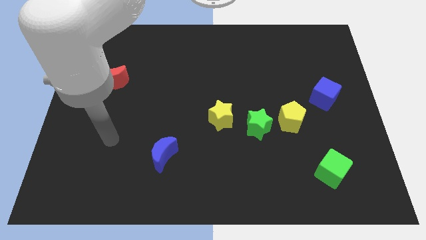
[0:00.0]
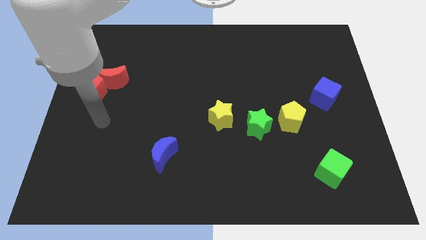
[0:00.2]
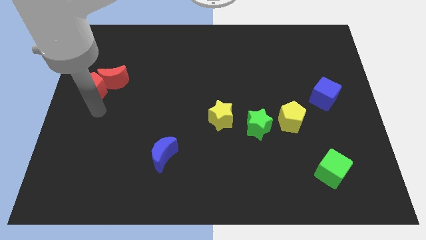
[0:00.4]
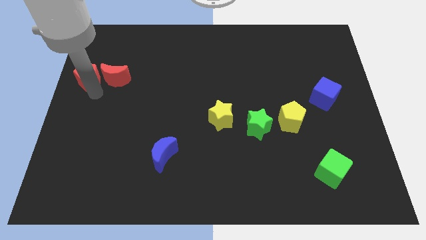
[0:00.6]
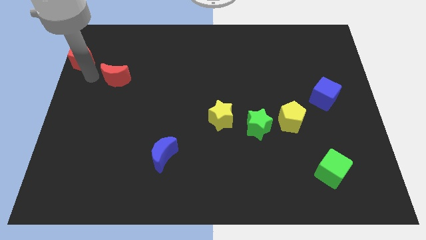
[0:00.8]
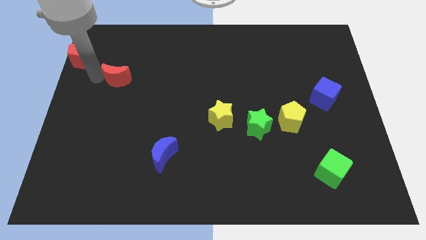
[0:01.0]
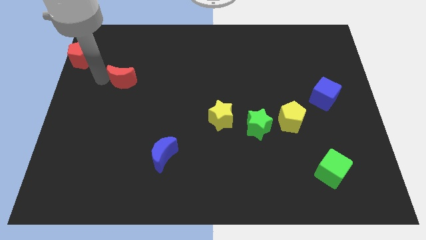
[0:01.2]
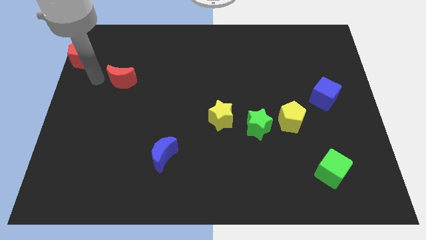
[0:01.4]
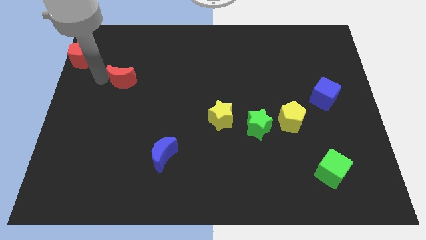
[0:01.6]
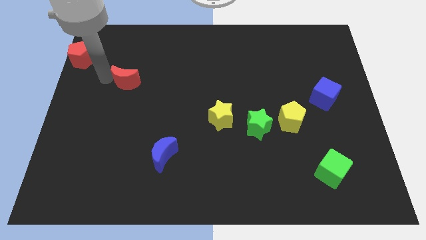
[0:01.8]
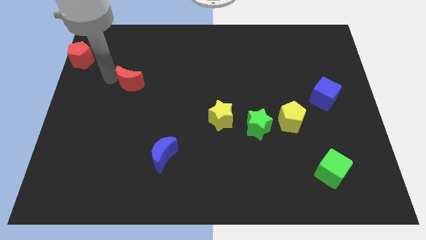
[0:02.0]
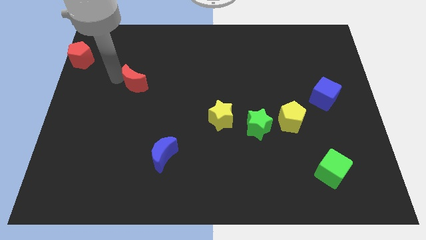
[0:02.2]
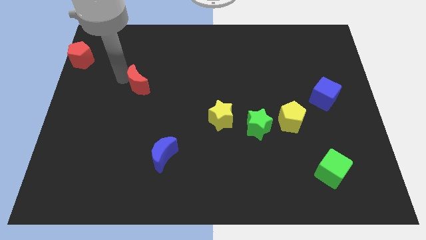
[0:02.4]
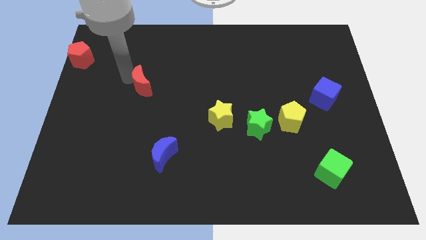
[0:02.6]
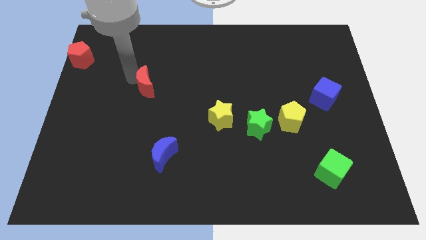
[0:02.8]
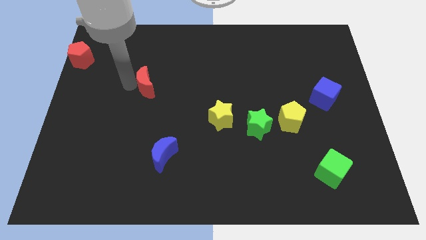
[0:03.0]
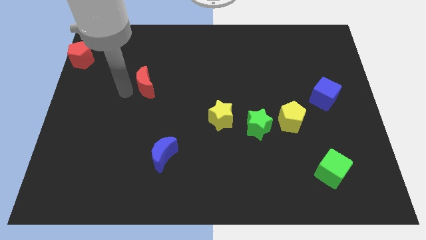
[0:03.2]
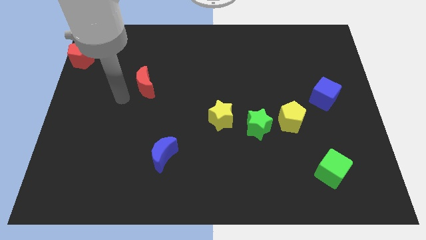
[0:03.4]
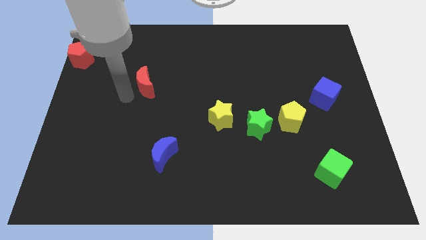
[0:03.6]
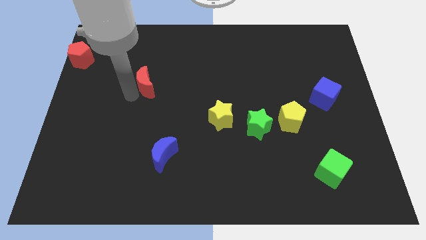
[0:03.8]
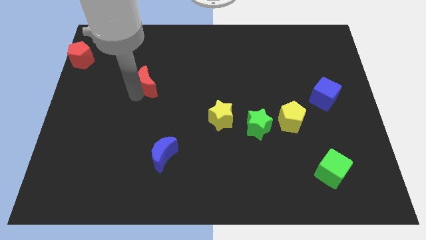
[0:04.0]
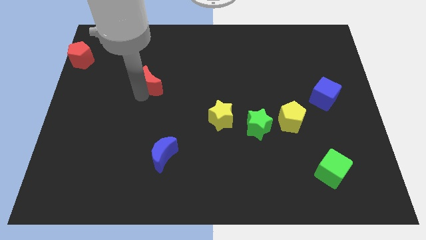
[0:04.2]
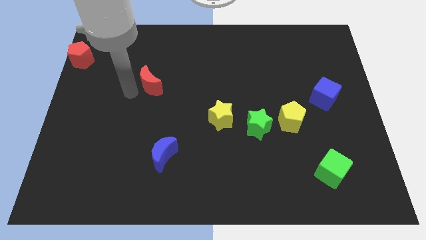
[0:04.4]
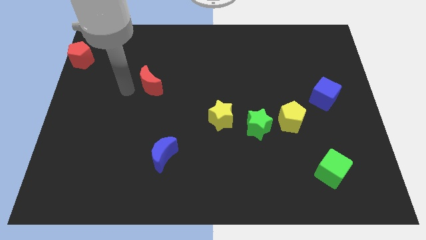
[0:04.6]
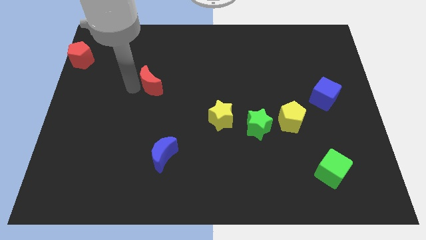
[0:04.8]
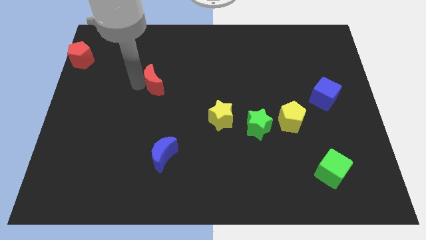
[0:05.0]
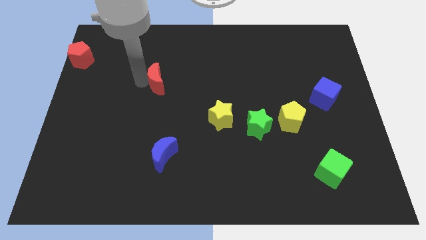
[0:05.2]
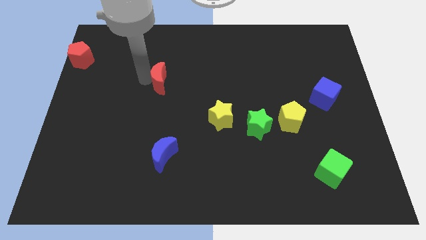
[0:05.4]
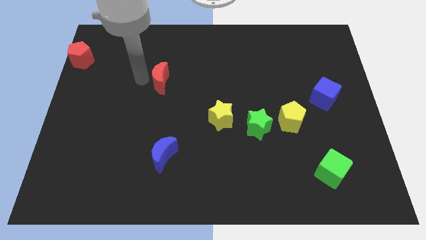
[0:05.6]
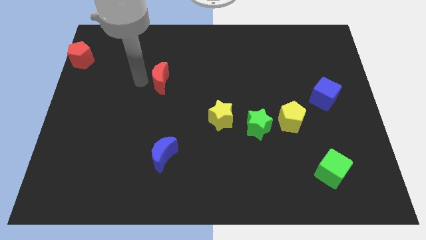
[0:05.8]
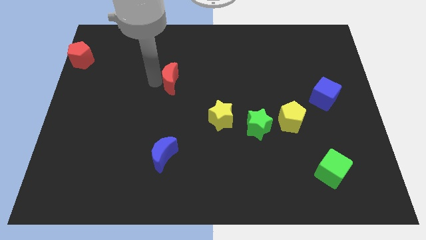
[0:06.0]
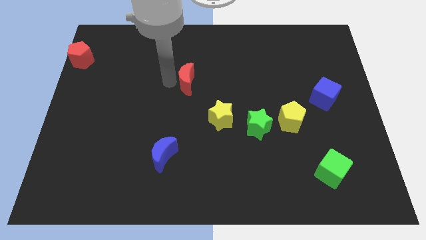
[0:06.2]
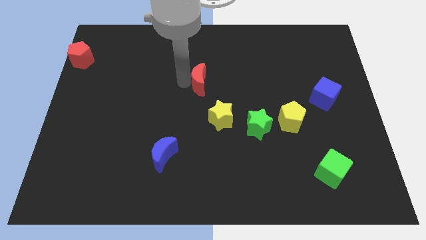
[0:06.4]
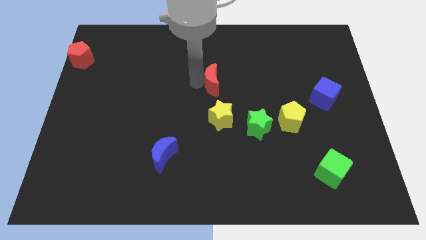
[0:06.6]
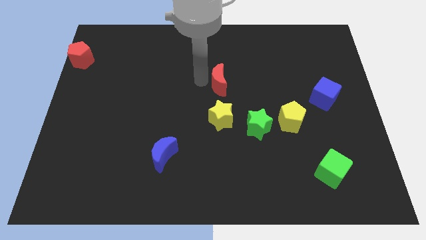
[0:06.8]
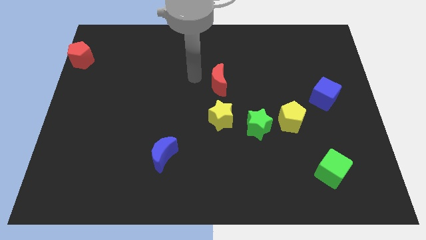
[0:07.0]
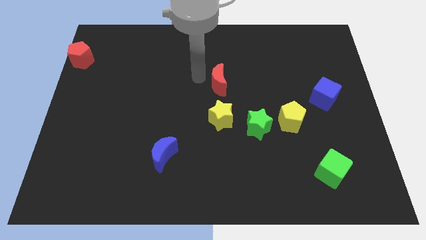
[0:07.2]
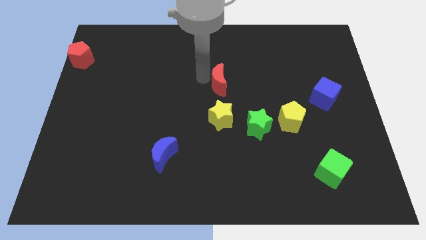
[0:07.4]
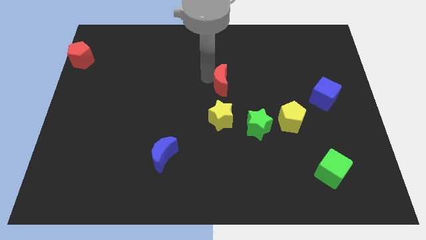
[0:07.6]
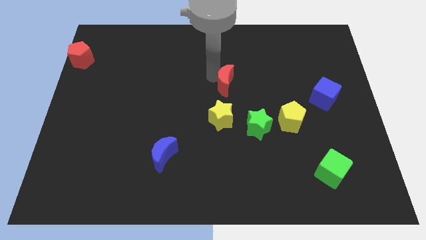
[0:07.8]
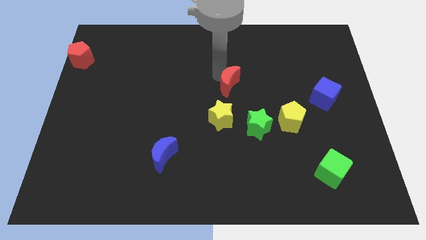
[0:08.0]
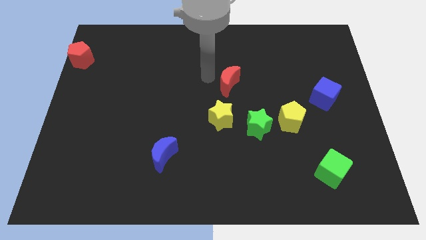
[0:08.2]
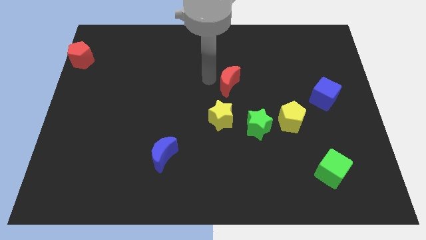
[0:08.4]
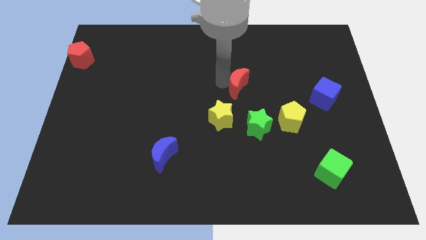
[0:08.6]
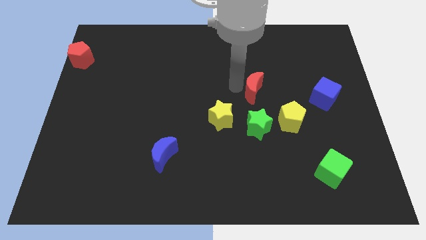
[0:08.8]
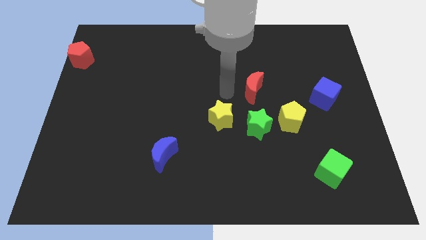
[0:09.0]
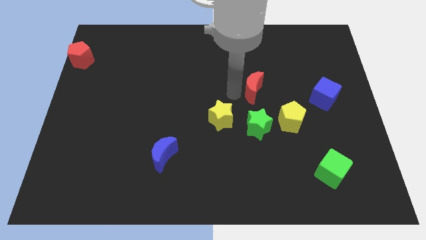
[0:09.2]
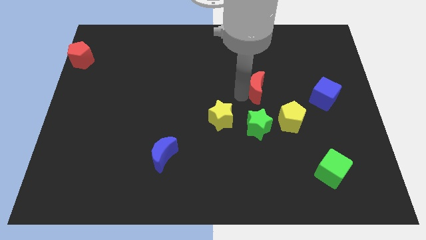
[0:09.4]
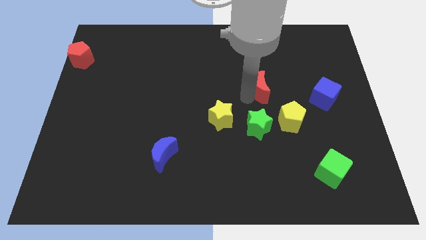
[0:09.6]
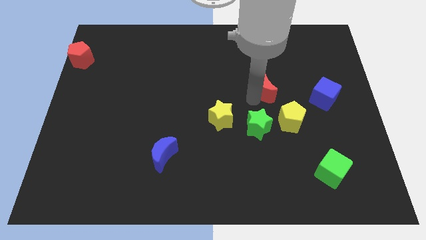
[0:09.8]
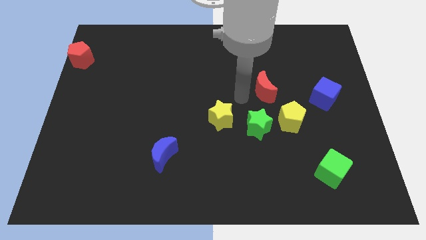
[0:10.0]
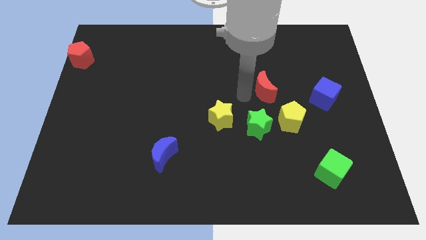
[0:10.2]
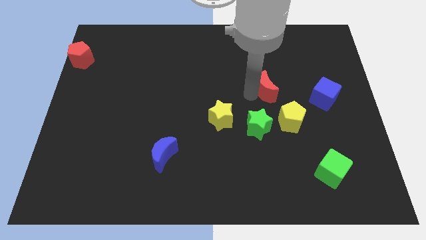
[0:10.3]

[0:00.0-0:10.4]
put the red moon to the top side of the yellow pentagon

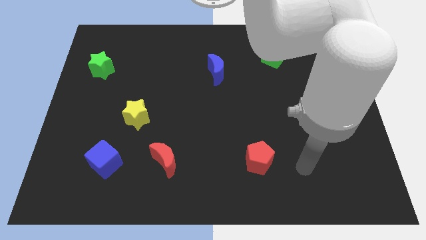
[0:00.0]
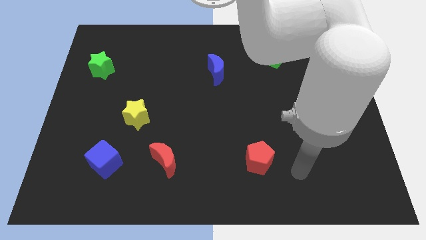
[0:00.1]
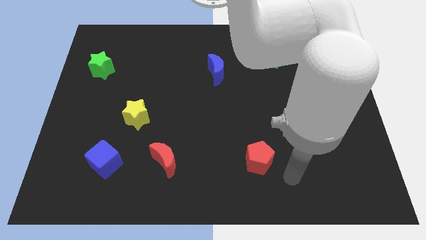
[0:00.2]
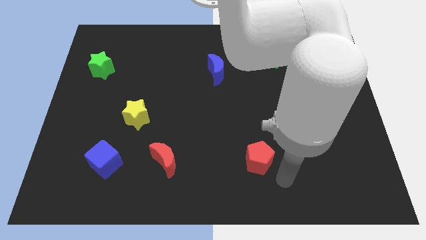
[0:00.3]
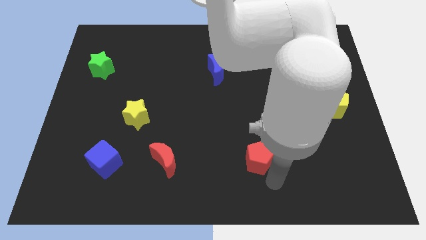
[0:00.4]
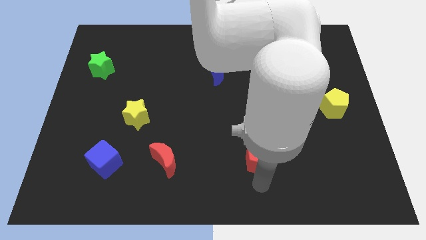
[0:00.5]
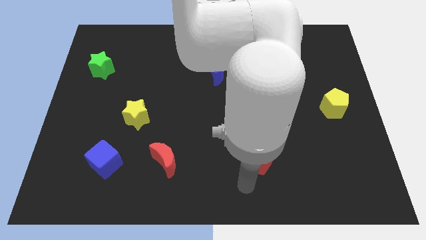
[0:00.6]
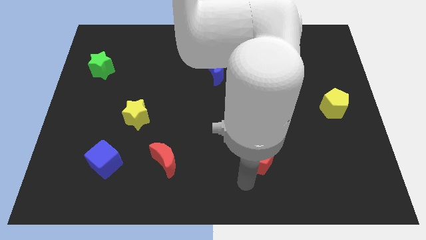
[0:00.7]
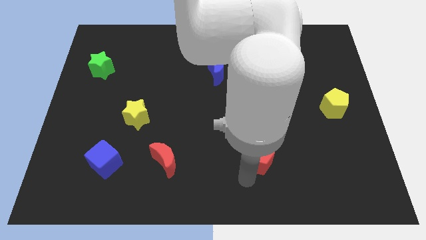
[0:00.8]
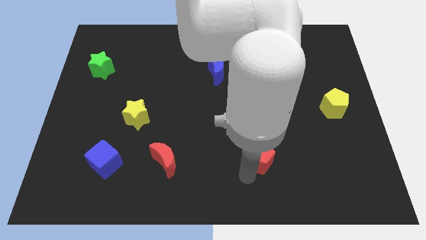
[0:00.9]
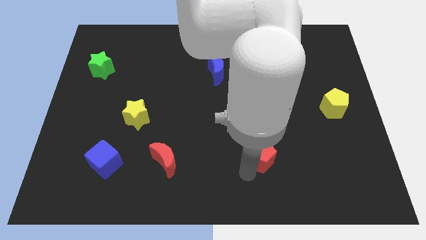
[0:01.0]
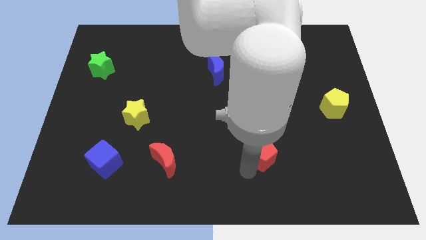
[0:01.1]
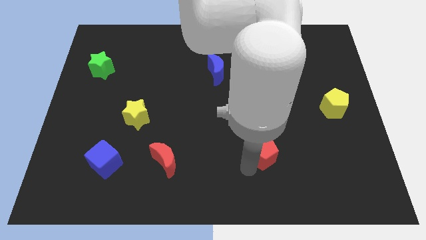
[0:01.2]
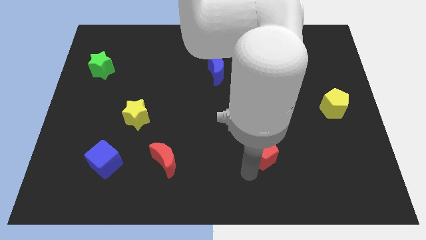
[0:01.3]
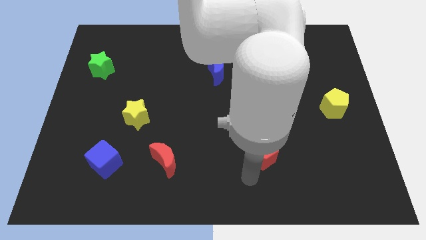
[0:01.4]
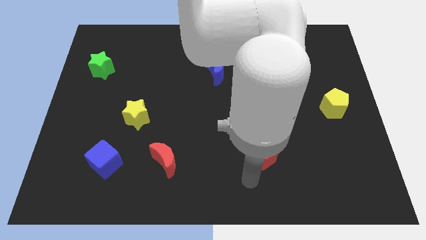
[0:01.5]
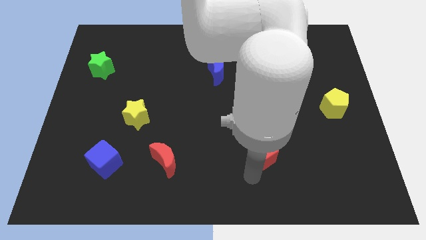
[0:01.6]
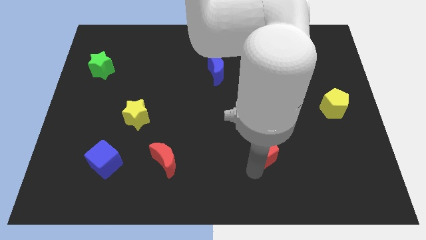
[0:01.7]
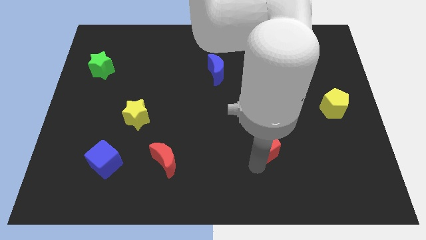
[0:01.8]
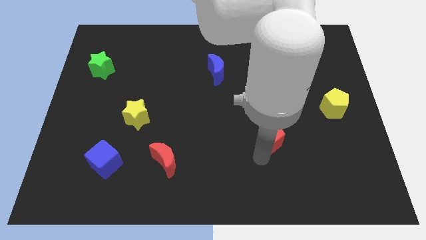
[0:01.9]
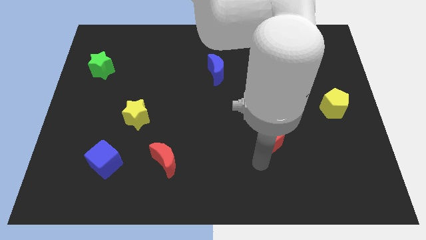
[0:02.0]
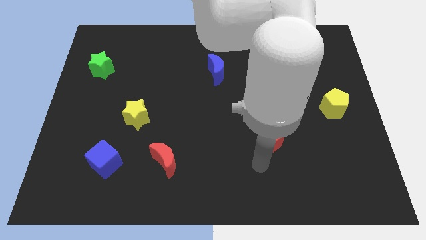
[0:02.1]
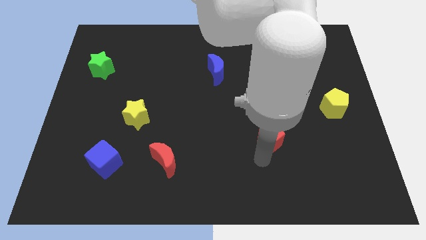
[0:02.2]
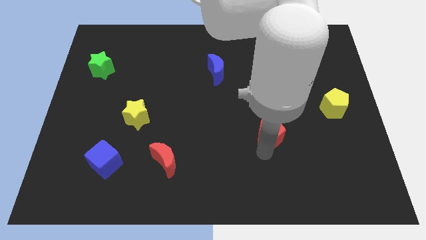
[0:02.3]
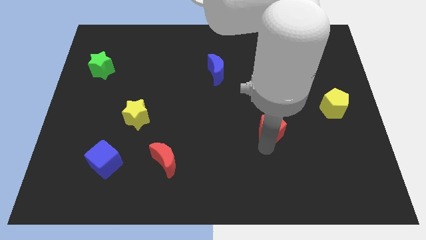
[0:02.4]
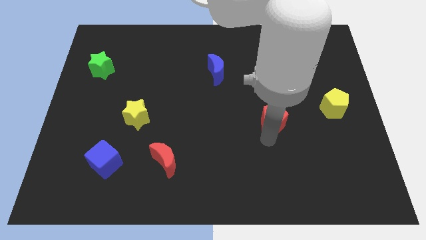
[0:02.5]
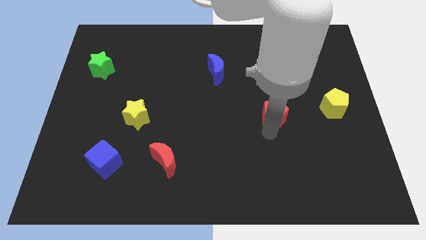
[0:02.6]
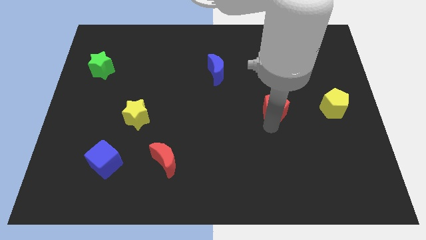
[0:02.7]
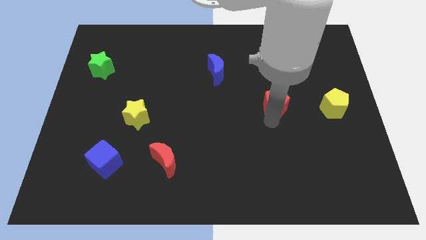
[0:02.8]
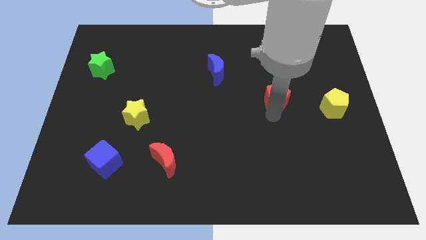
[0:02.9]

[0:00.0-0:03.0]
slide the red pentagon below the green cube
